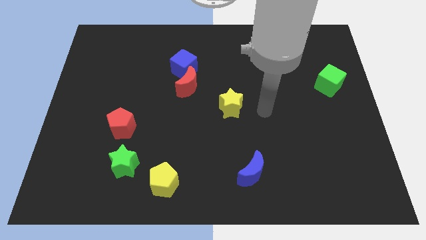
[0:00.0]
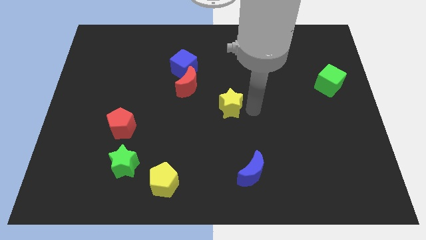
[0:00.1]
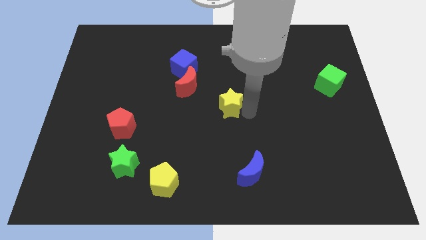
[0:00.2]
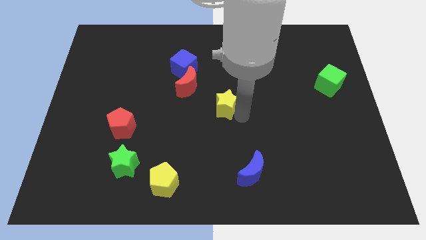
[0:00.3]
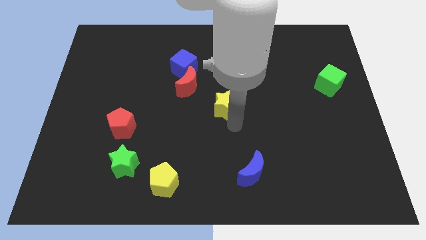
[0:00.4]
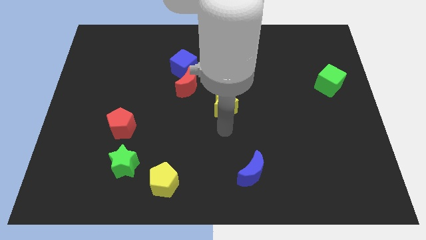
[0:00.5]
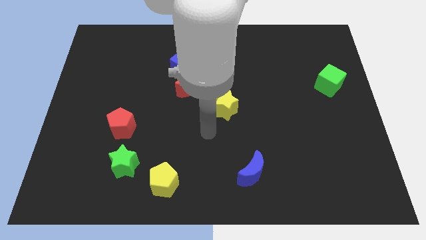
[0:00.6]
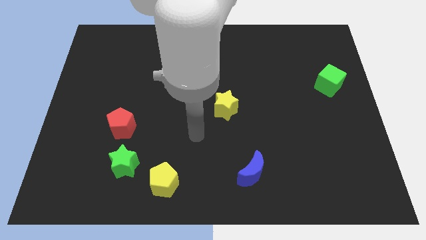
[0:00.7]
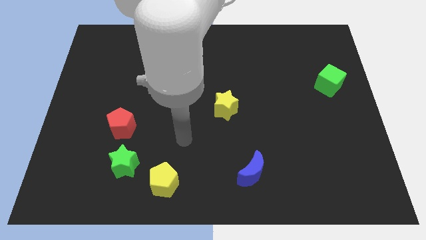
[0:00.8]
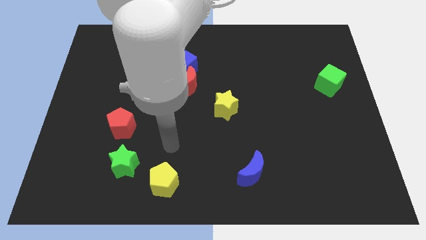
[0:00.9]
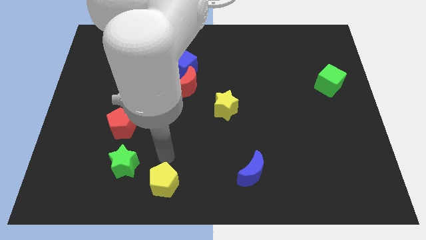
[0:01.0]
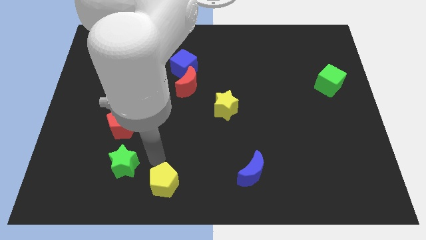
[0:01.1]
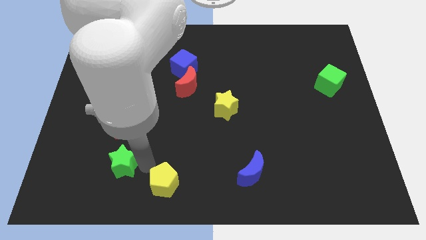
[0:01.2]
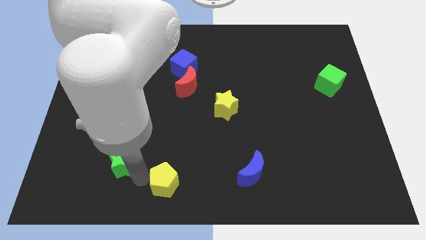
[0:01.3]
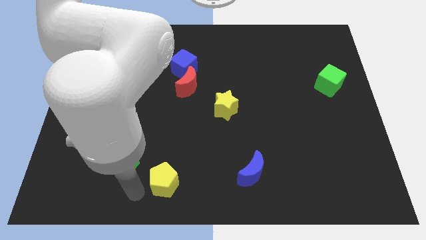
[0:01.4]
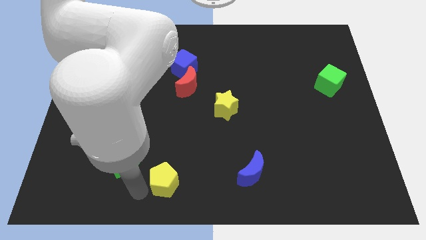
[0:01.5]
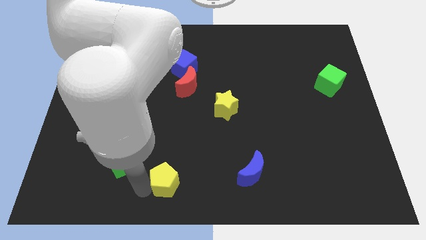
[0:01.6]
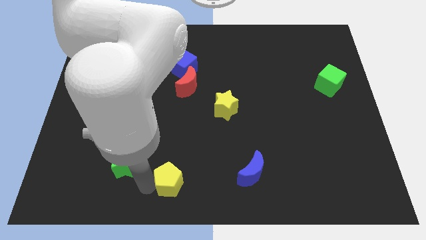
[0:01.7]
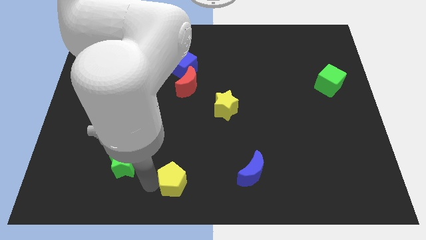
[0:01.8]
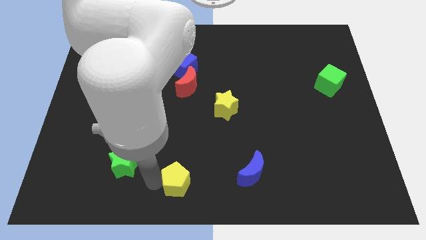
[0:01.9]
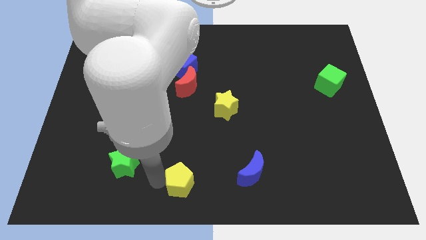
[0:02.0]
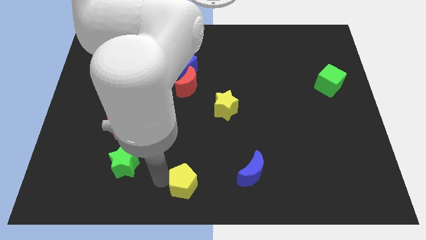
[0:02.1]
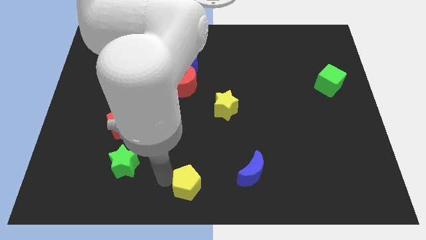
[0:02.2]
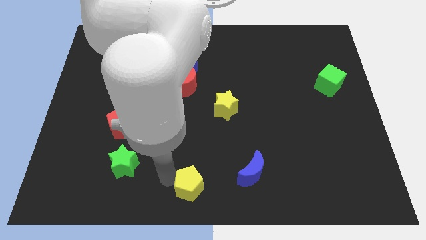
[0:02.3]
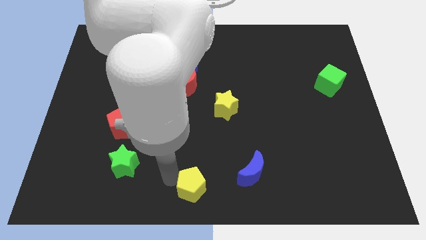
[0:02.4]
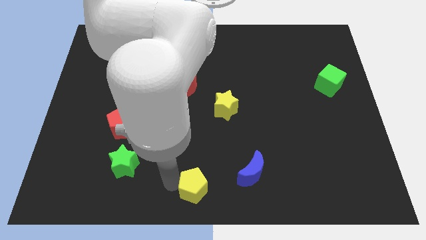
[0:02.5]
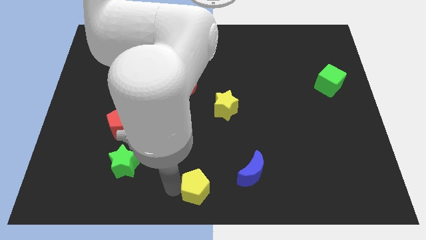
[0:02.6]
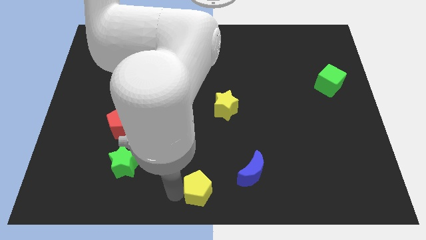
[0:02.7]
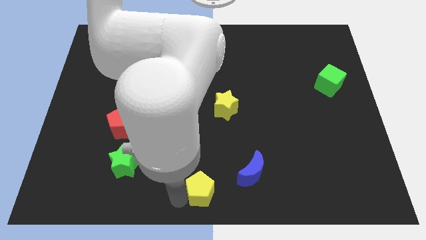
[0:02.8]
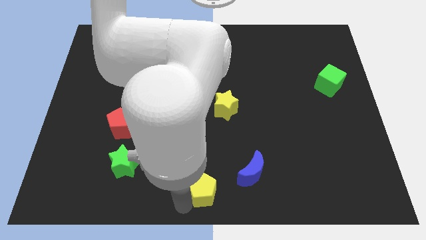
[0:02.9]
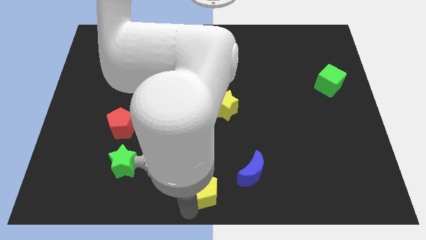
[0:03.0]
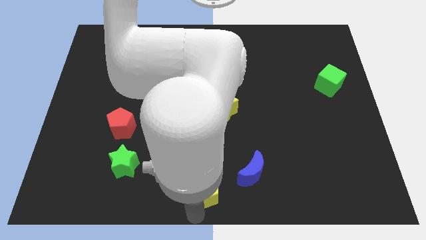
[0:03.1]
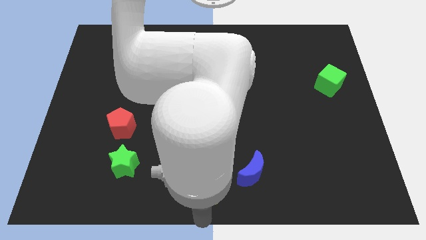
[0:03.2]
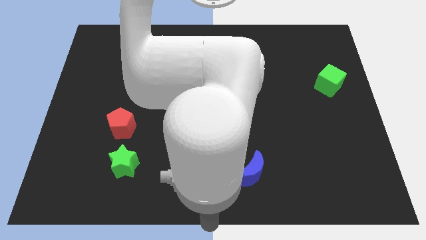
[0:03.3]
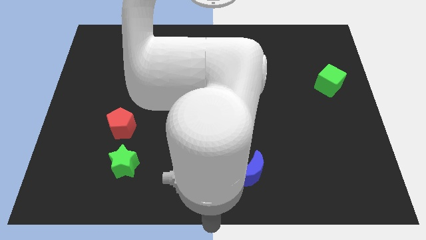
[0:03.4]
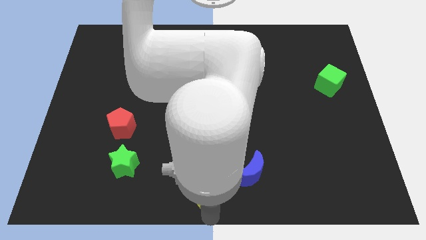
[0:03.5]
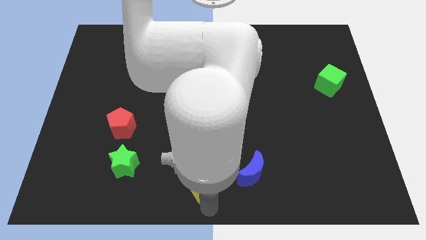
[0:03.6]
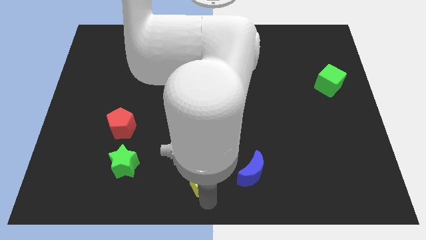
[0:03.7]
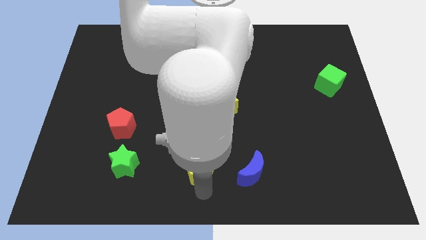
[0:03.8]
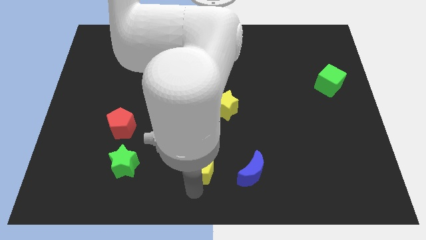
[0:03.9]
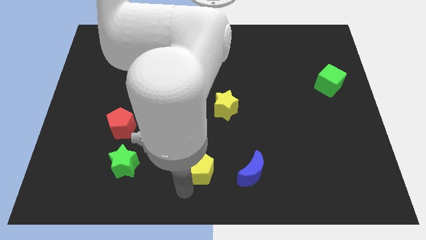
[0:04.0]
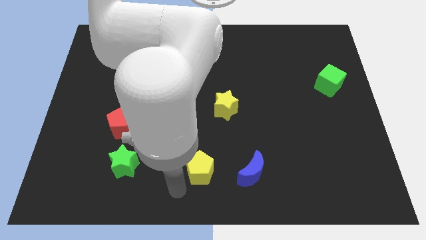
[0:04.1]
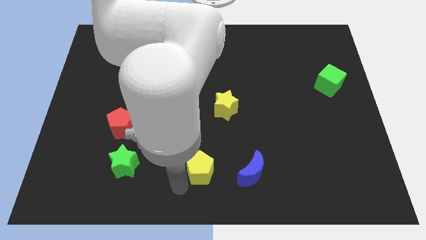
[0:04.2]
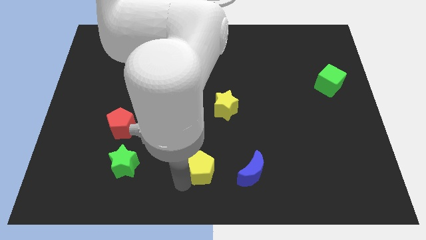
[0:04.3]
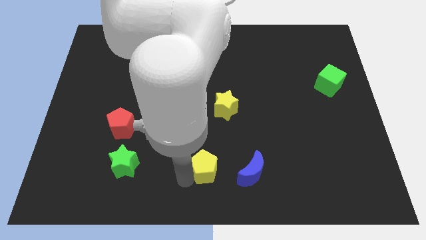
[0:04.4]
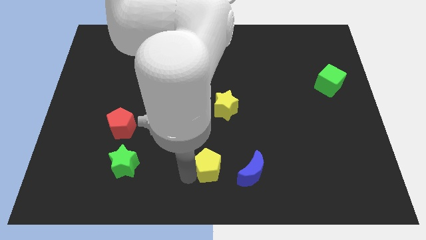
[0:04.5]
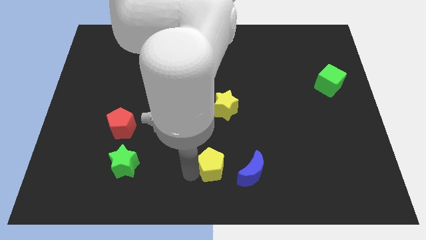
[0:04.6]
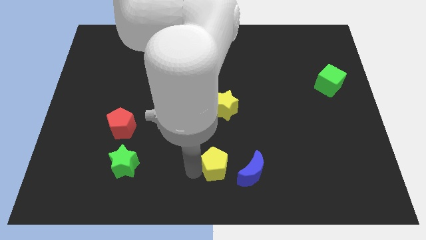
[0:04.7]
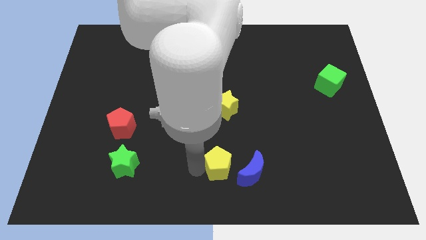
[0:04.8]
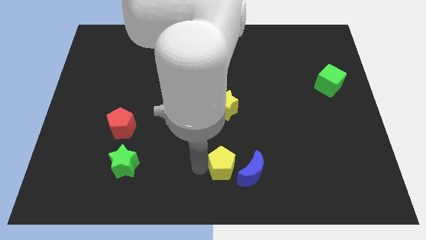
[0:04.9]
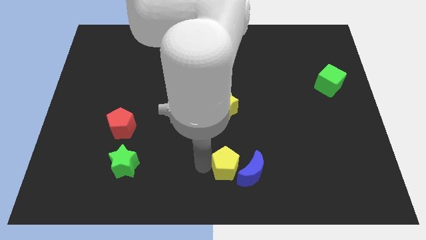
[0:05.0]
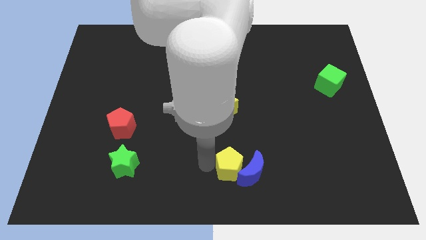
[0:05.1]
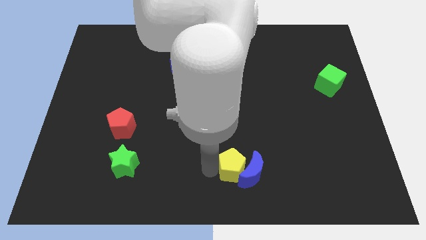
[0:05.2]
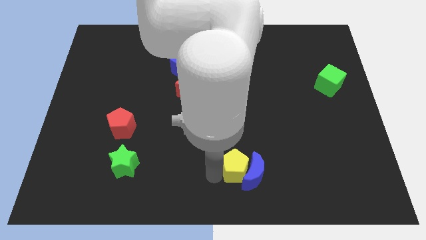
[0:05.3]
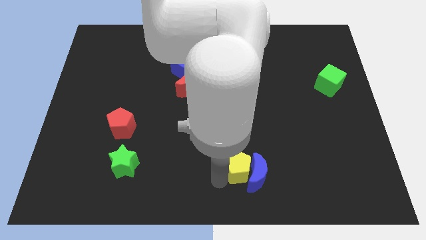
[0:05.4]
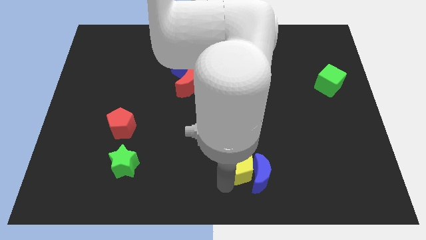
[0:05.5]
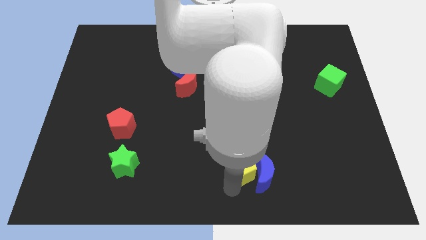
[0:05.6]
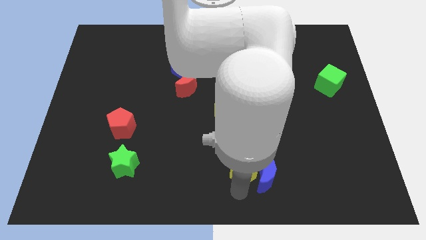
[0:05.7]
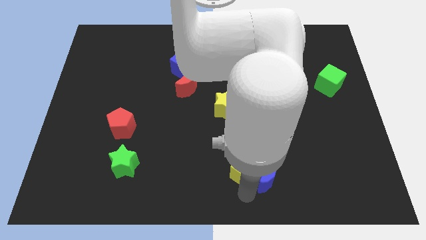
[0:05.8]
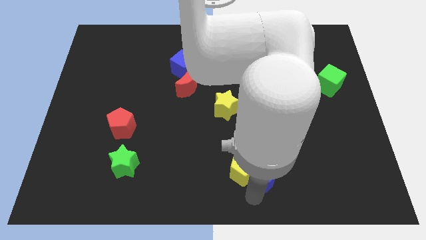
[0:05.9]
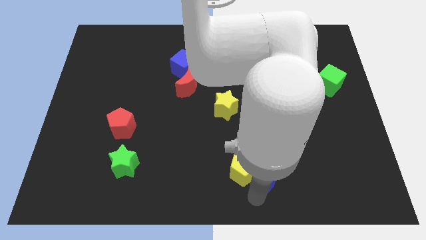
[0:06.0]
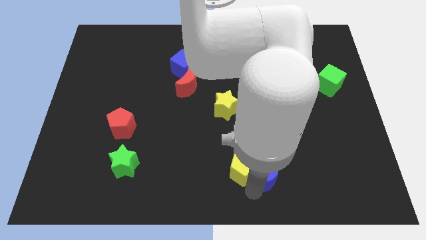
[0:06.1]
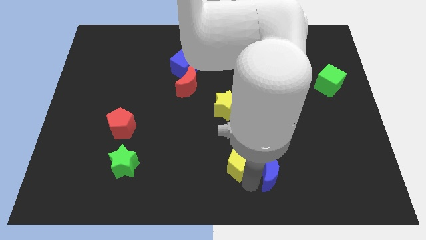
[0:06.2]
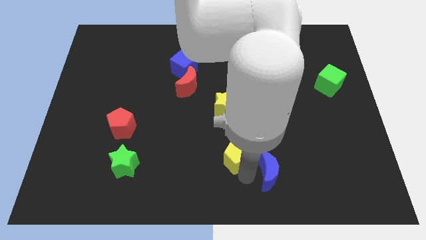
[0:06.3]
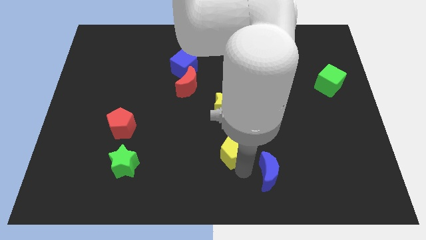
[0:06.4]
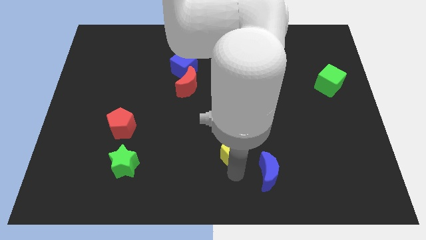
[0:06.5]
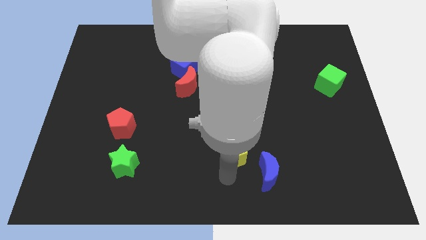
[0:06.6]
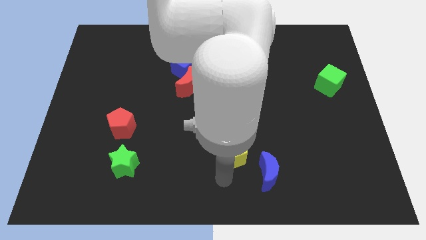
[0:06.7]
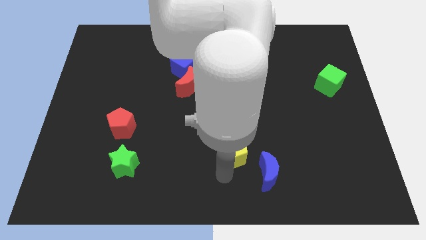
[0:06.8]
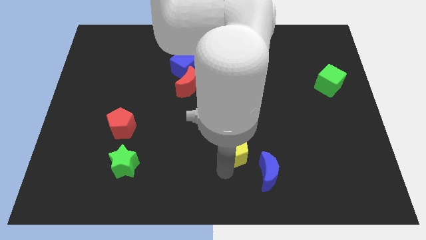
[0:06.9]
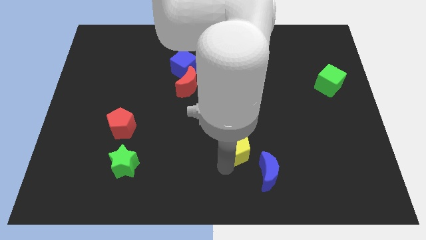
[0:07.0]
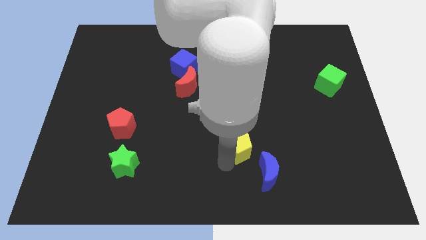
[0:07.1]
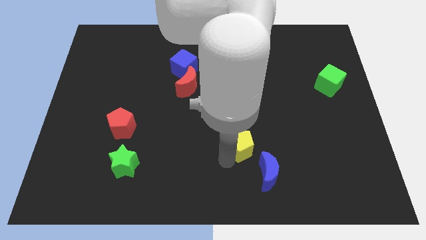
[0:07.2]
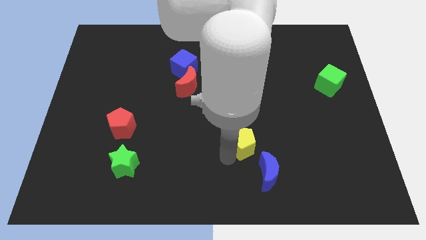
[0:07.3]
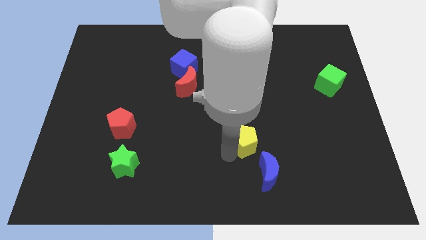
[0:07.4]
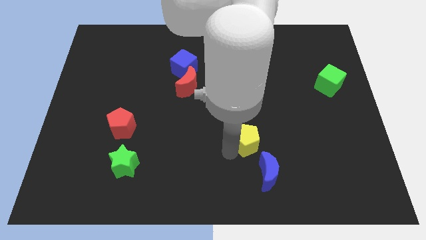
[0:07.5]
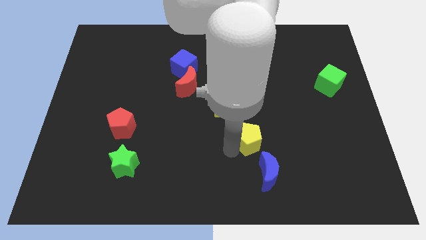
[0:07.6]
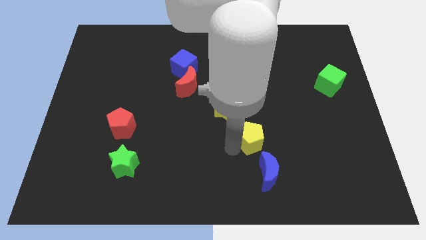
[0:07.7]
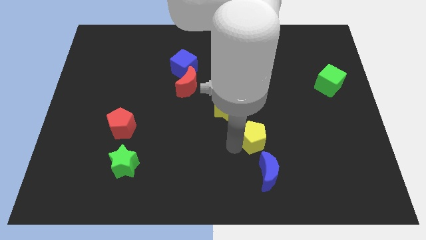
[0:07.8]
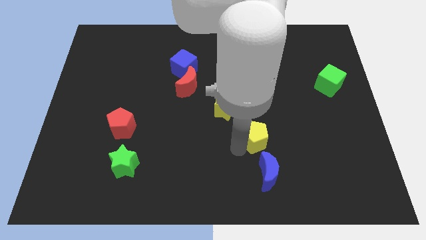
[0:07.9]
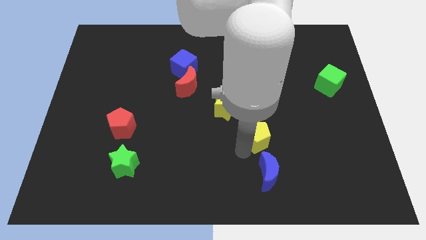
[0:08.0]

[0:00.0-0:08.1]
slide the yellow pentagon up and to the right diagonally
